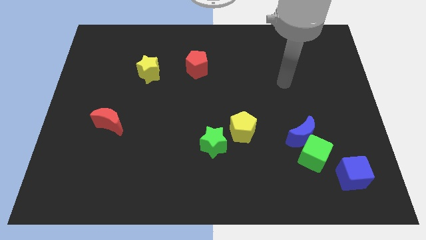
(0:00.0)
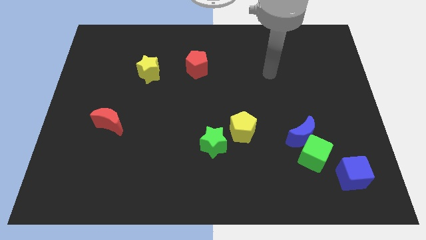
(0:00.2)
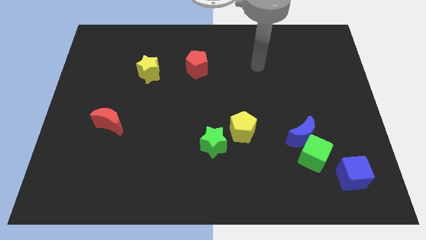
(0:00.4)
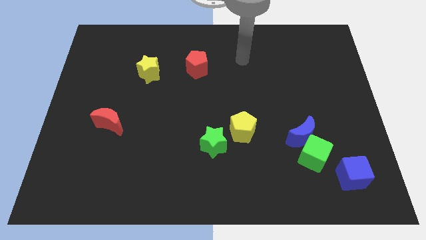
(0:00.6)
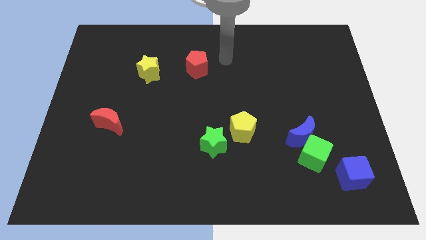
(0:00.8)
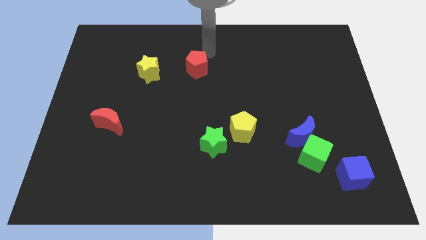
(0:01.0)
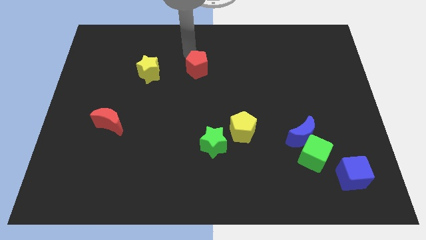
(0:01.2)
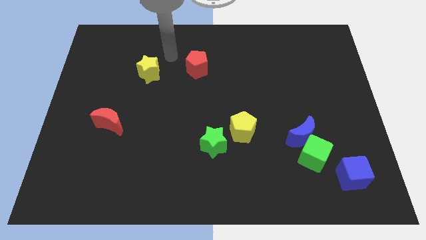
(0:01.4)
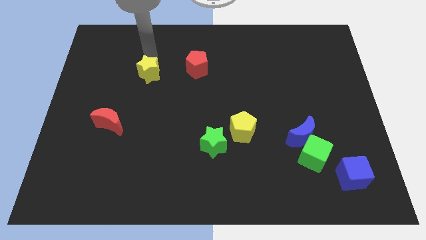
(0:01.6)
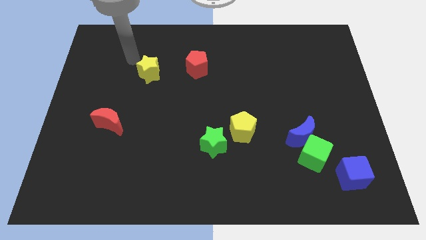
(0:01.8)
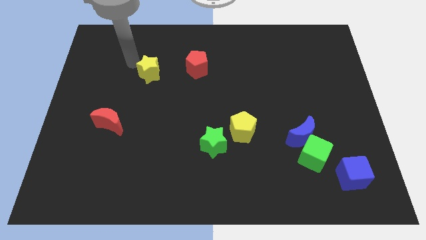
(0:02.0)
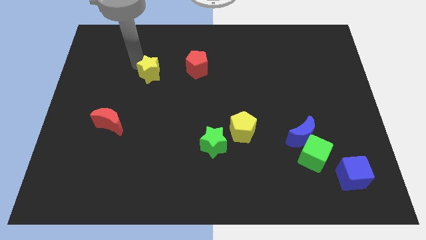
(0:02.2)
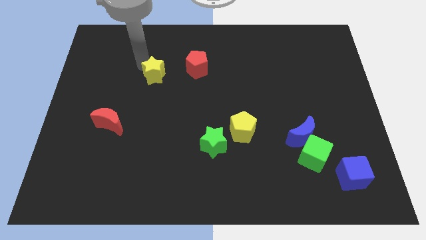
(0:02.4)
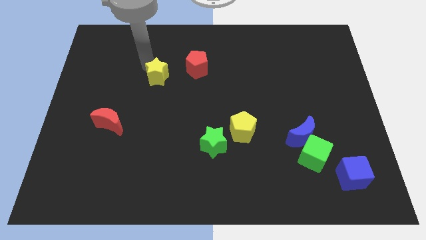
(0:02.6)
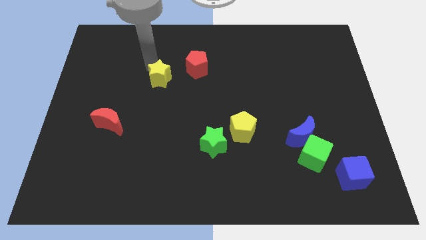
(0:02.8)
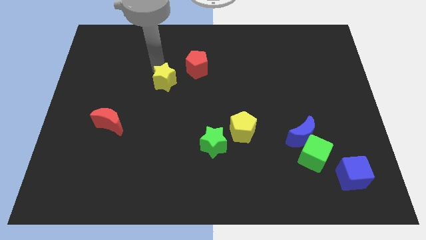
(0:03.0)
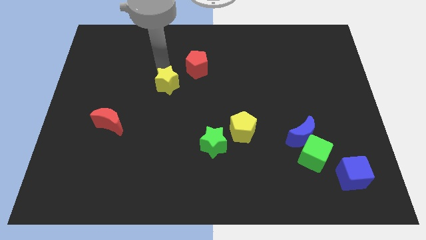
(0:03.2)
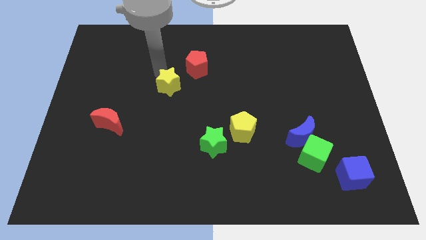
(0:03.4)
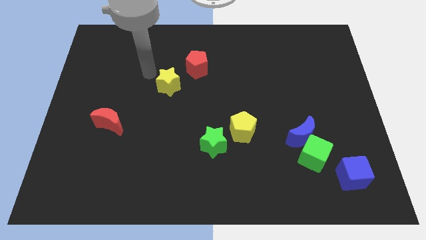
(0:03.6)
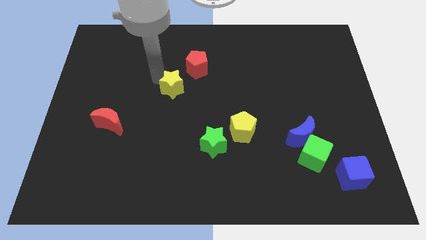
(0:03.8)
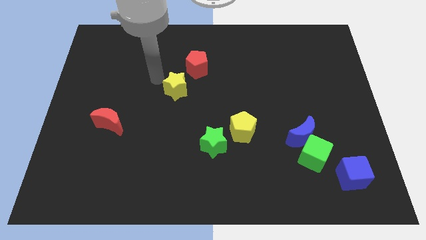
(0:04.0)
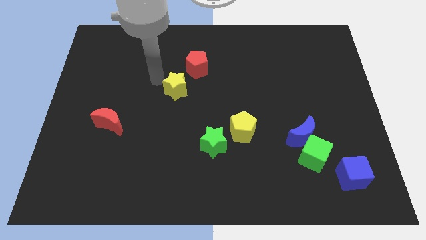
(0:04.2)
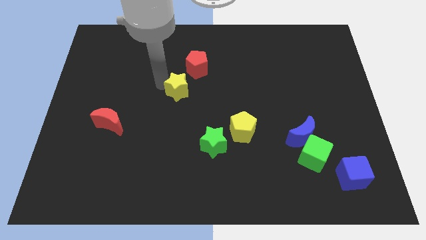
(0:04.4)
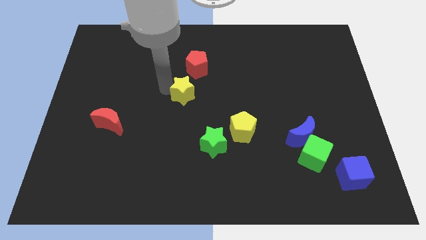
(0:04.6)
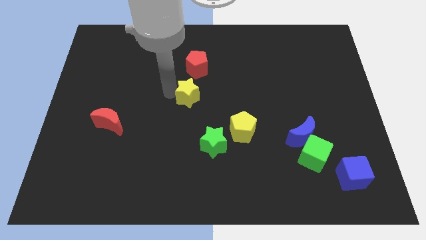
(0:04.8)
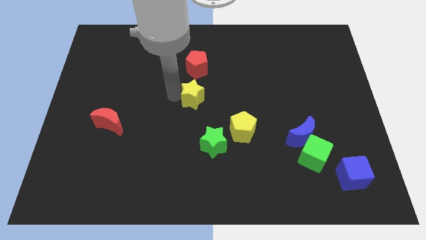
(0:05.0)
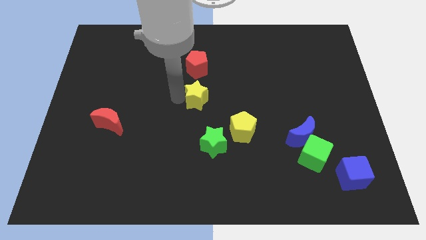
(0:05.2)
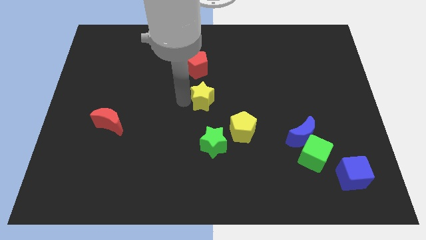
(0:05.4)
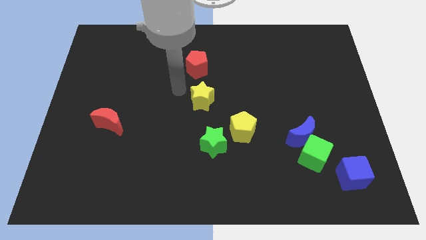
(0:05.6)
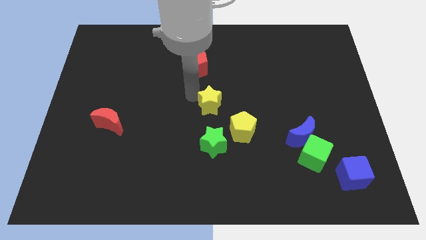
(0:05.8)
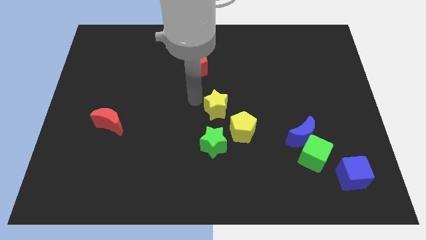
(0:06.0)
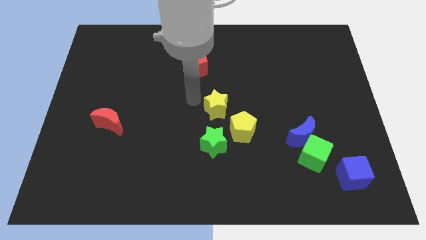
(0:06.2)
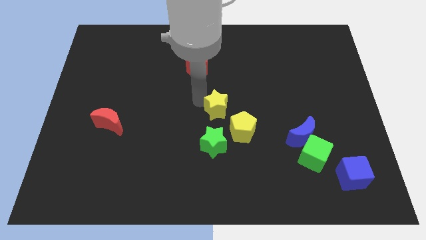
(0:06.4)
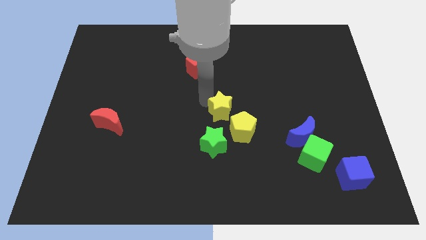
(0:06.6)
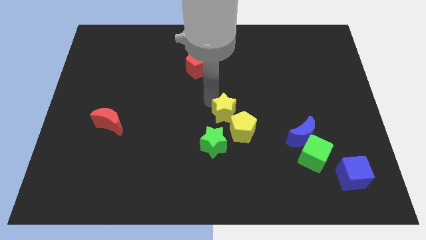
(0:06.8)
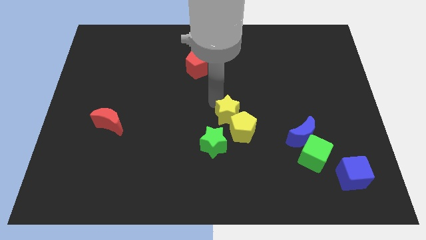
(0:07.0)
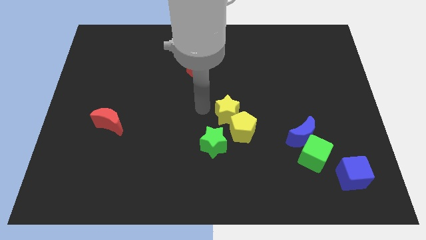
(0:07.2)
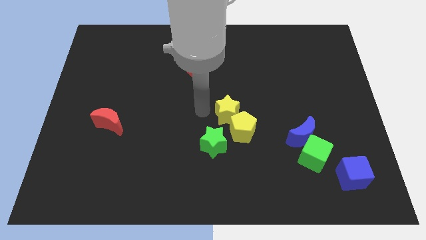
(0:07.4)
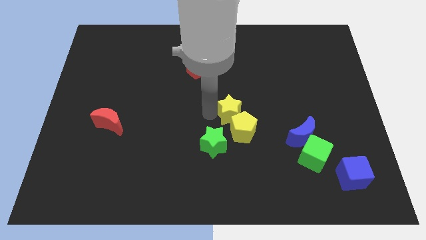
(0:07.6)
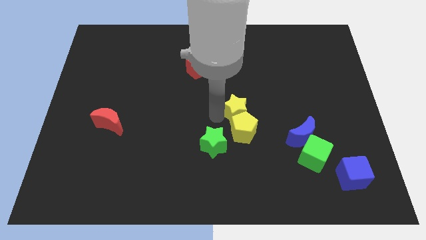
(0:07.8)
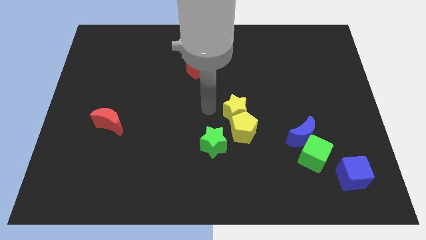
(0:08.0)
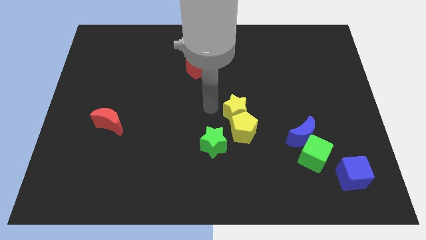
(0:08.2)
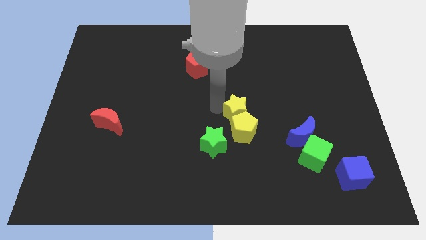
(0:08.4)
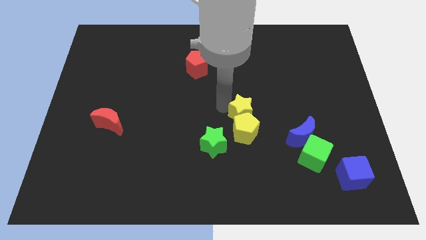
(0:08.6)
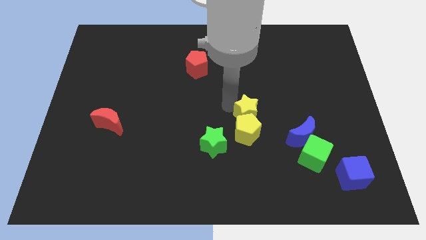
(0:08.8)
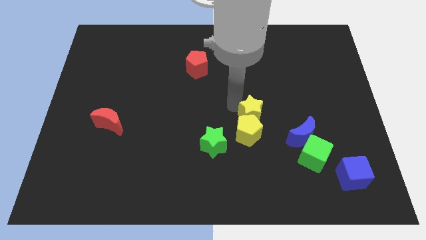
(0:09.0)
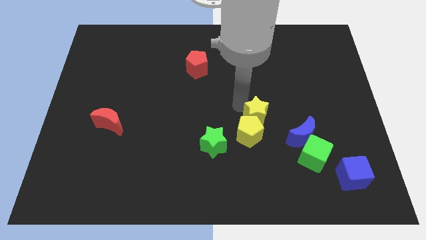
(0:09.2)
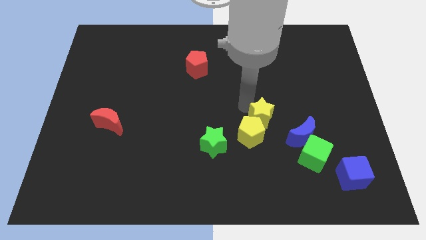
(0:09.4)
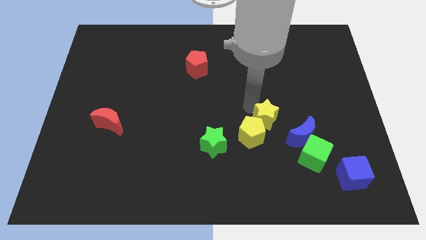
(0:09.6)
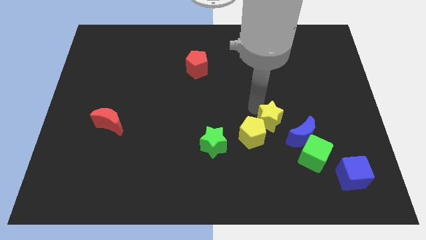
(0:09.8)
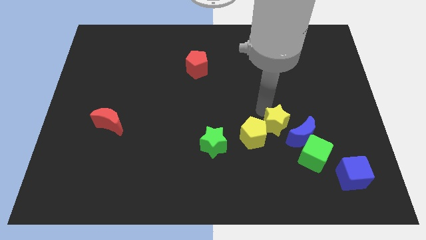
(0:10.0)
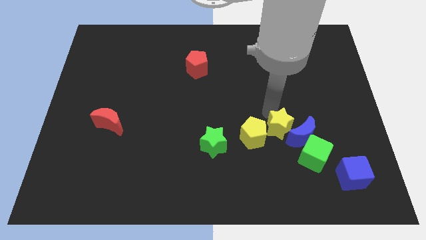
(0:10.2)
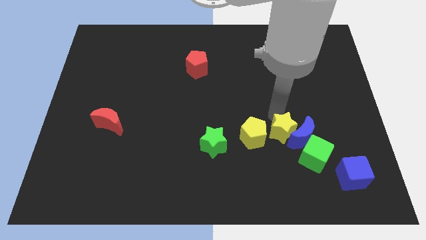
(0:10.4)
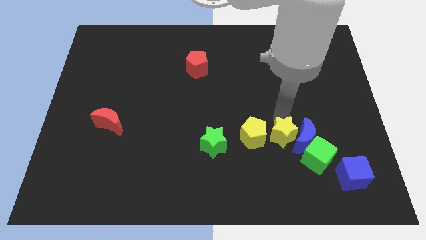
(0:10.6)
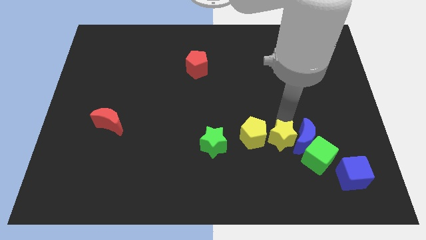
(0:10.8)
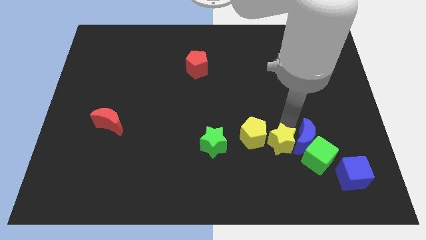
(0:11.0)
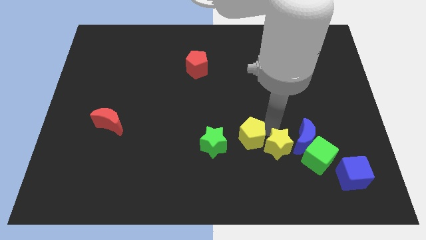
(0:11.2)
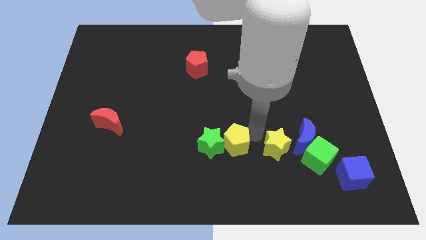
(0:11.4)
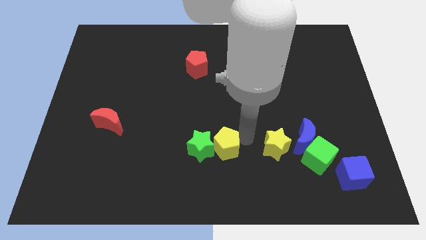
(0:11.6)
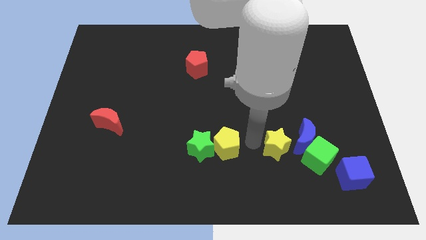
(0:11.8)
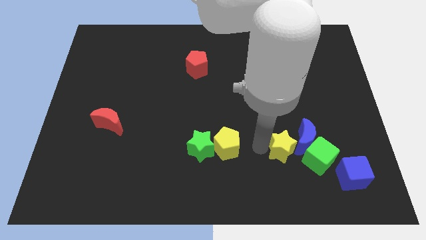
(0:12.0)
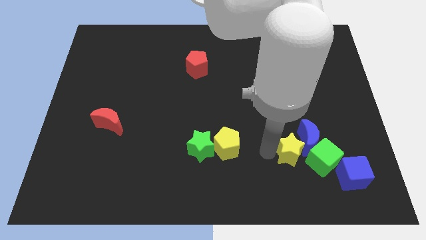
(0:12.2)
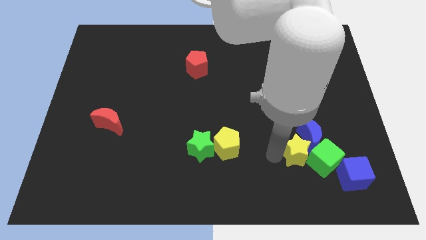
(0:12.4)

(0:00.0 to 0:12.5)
move the yellow star close to the green cube

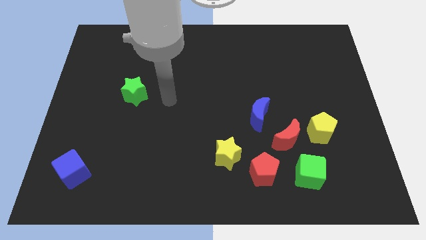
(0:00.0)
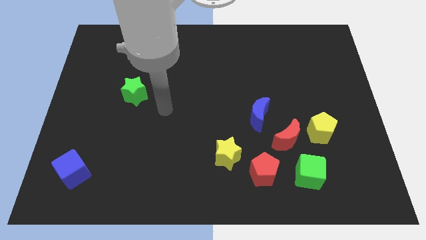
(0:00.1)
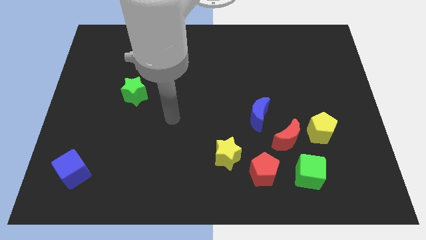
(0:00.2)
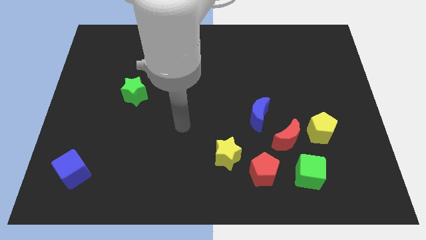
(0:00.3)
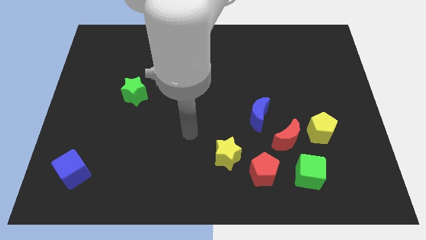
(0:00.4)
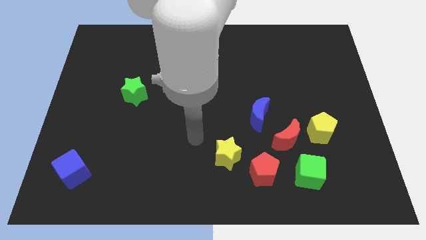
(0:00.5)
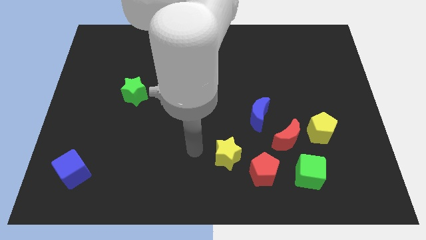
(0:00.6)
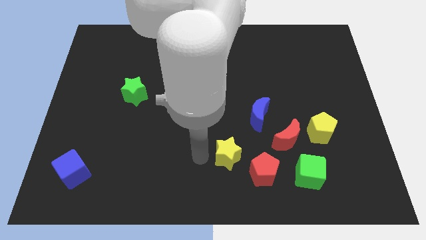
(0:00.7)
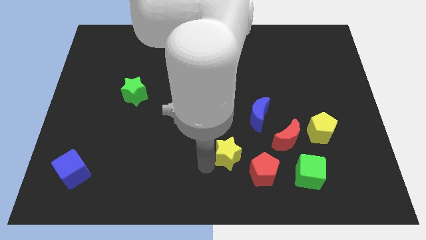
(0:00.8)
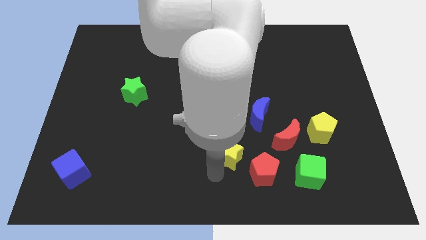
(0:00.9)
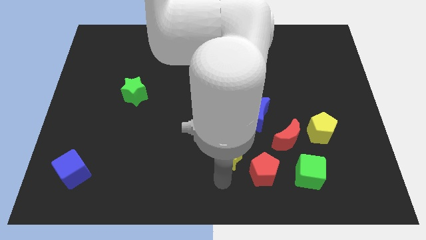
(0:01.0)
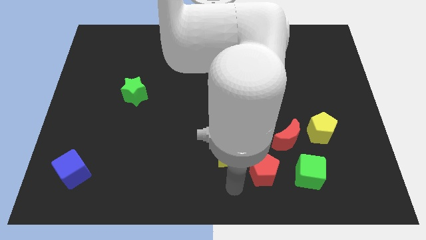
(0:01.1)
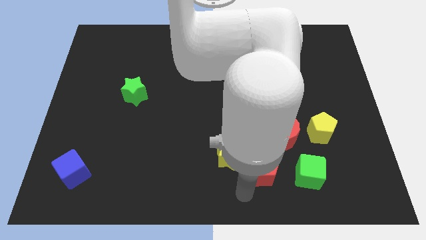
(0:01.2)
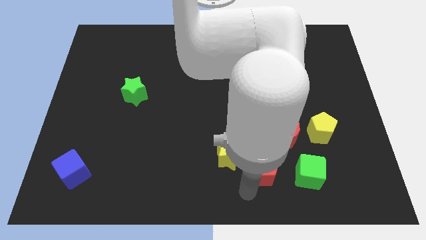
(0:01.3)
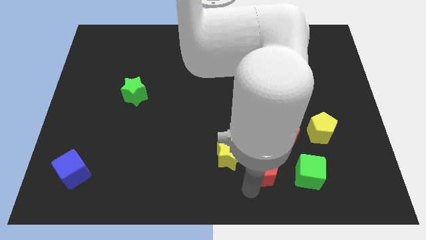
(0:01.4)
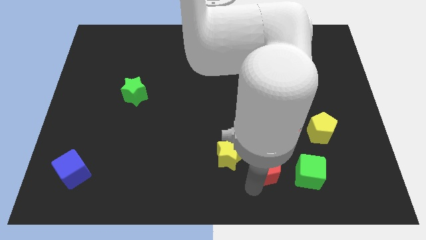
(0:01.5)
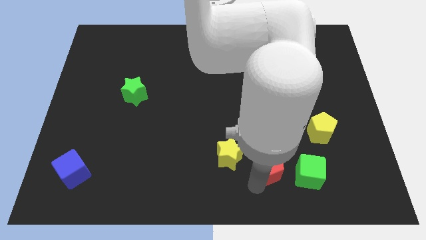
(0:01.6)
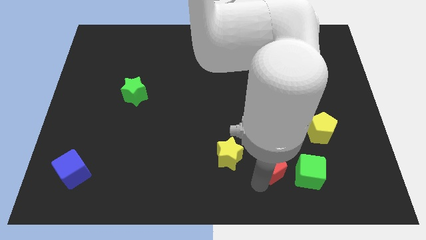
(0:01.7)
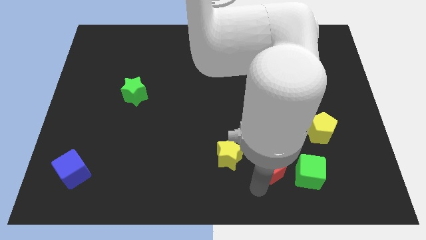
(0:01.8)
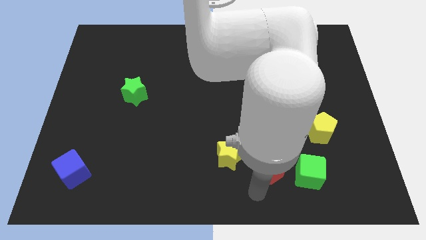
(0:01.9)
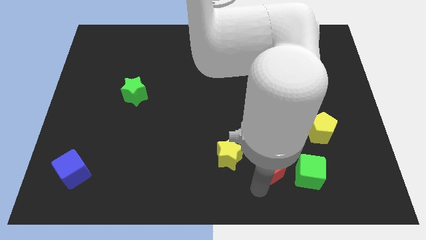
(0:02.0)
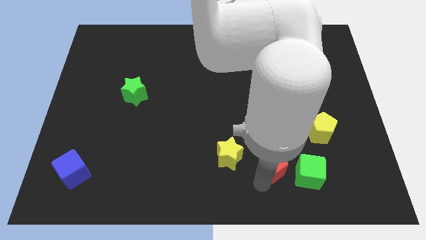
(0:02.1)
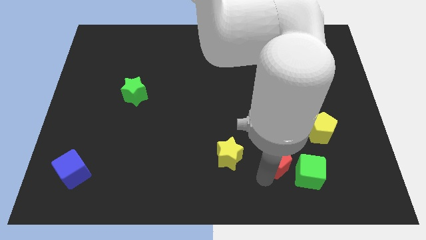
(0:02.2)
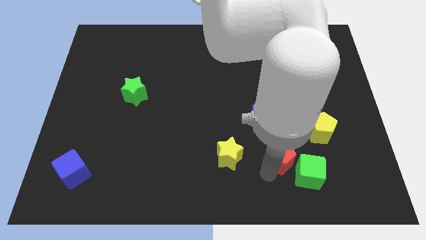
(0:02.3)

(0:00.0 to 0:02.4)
move the red pentagon close to the red moon
